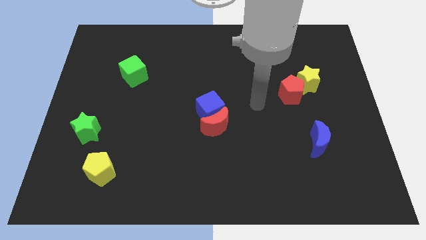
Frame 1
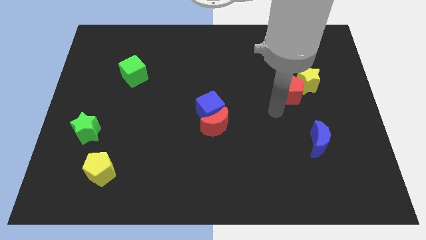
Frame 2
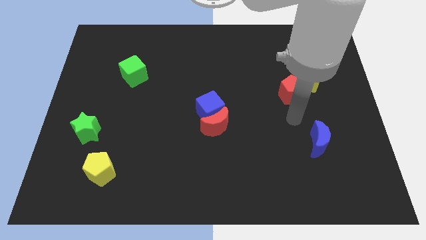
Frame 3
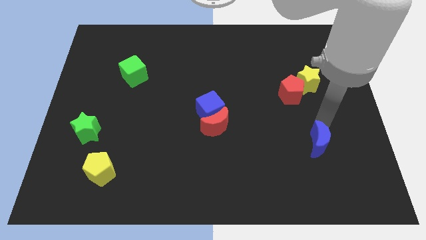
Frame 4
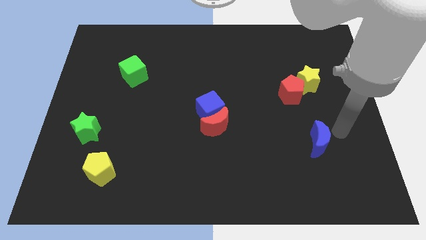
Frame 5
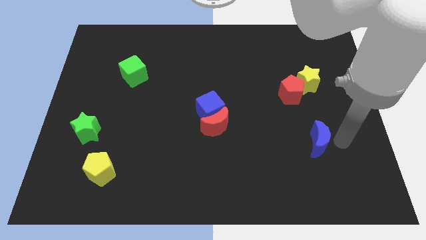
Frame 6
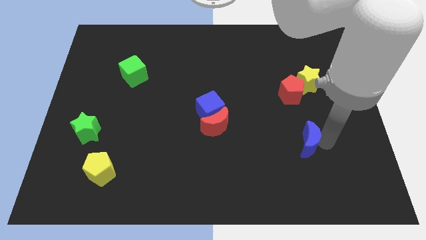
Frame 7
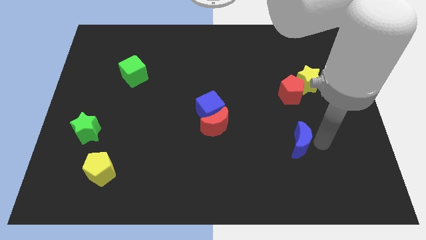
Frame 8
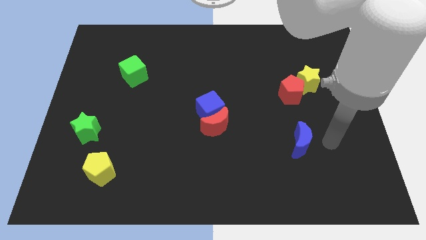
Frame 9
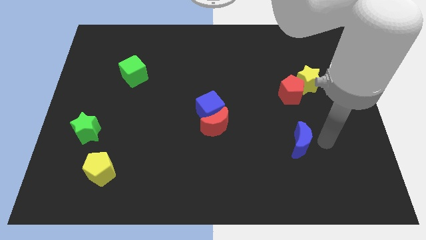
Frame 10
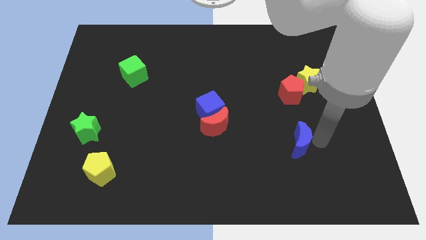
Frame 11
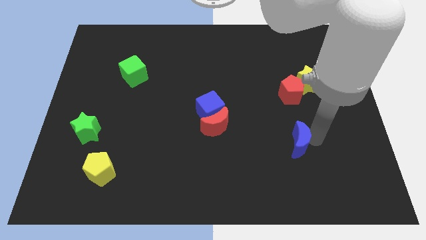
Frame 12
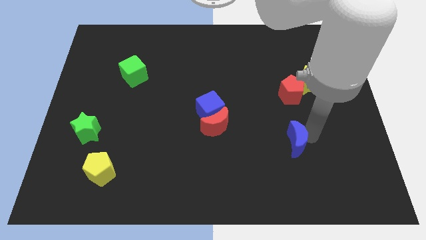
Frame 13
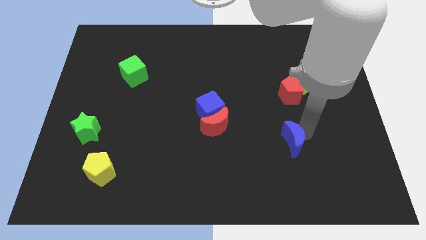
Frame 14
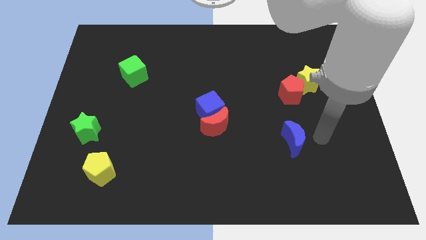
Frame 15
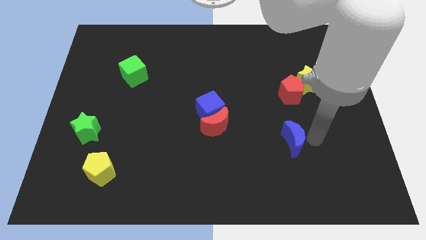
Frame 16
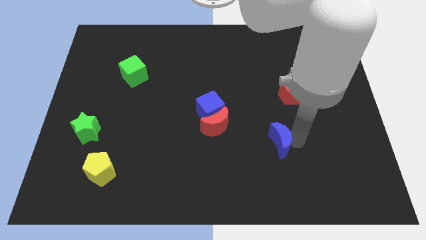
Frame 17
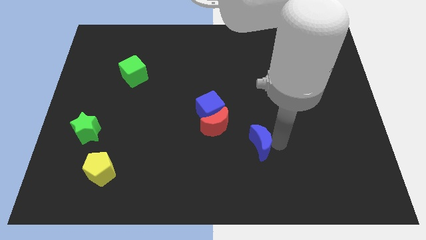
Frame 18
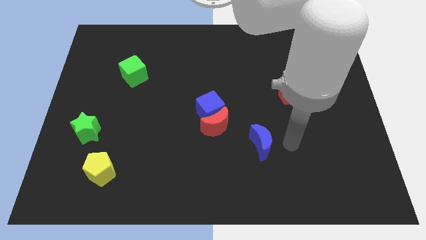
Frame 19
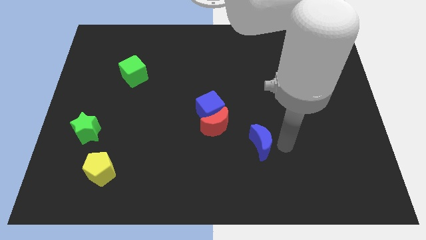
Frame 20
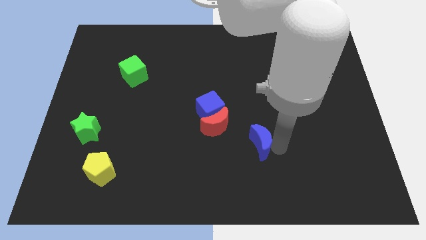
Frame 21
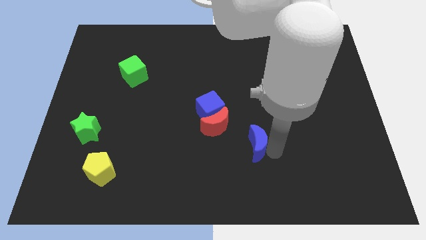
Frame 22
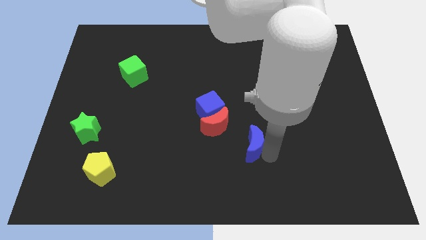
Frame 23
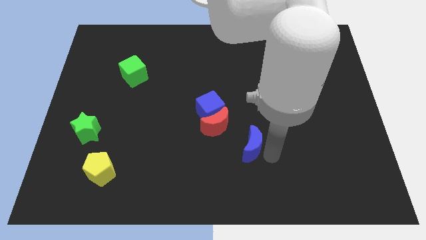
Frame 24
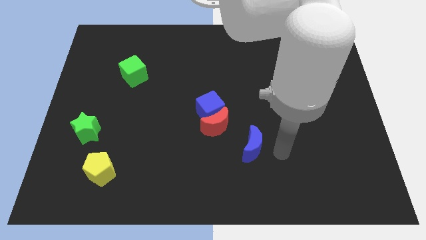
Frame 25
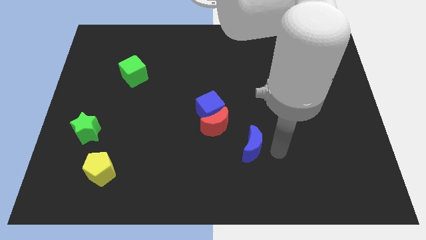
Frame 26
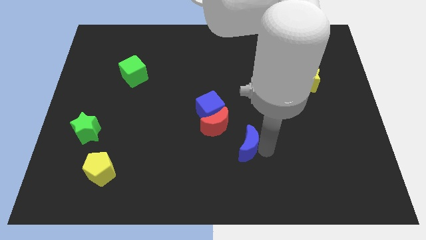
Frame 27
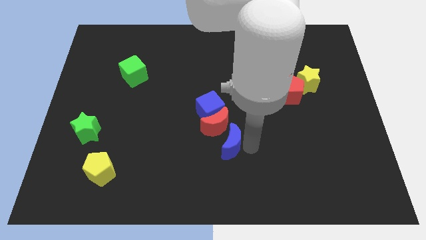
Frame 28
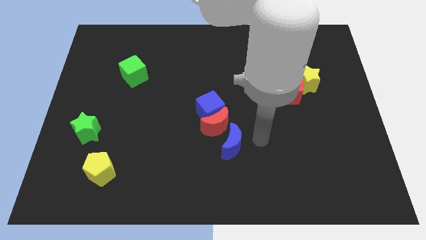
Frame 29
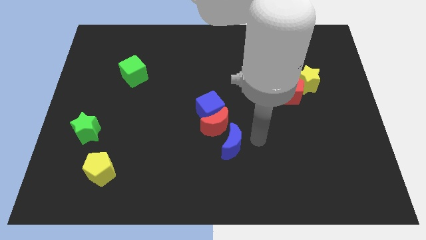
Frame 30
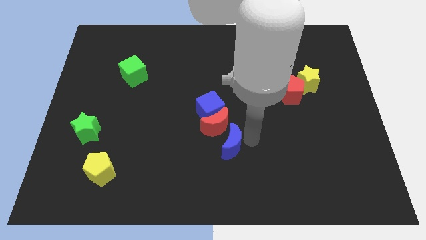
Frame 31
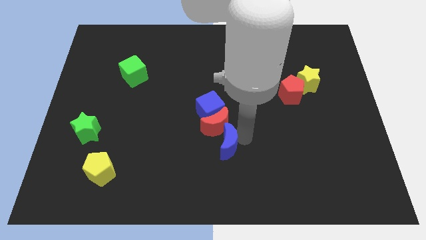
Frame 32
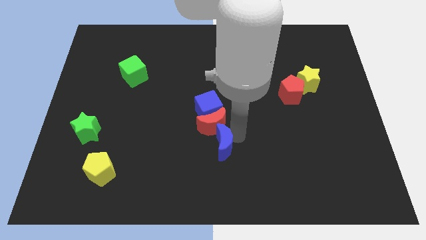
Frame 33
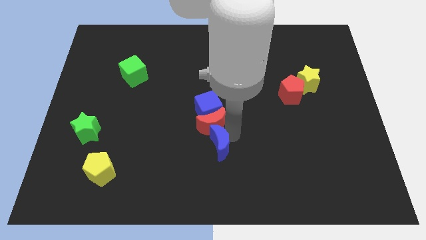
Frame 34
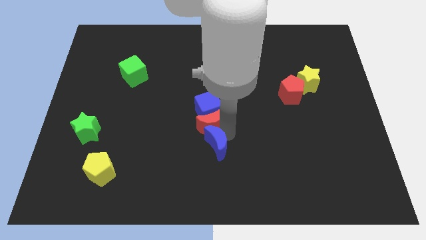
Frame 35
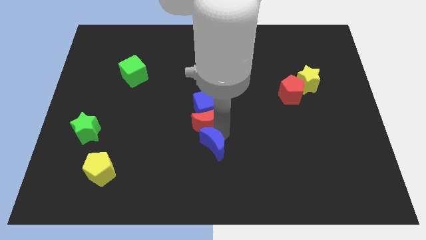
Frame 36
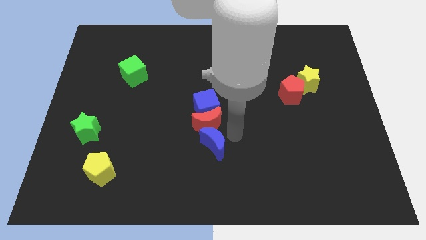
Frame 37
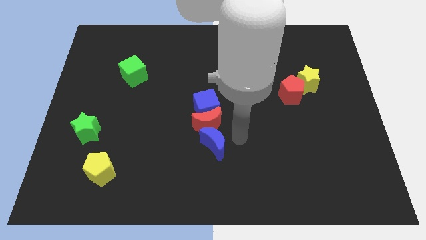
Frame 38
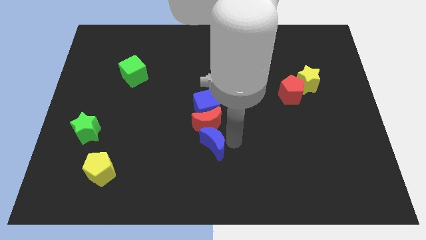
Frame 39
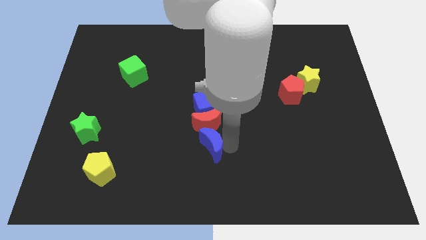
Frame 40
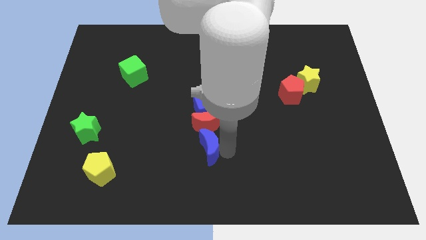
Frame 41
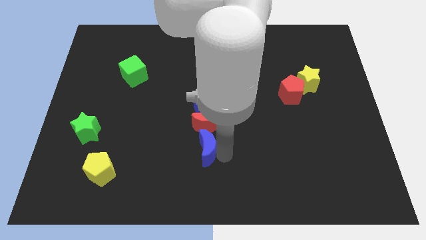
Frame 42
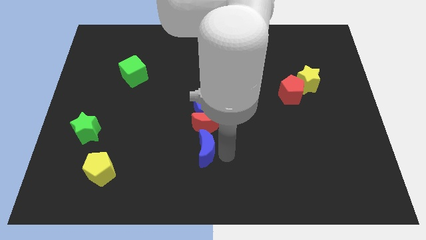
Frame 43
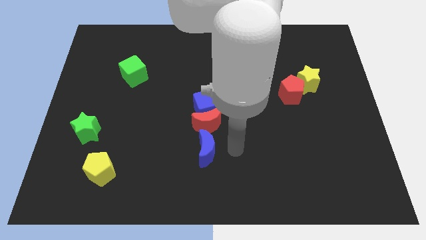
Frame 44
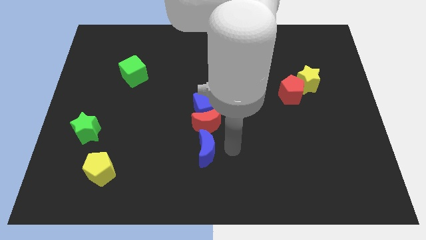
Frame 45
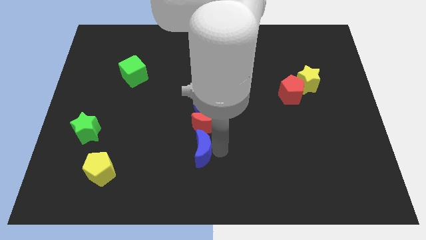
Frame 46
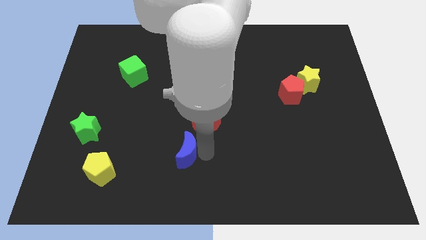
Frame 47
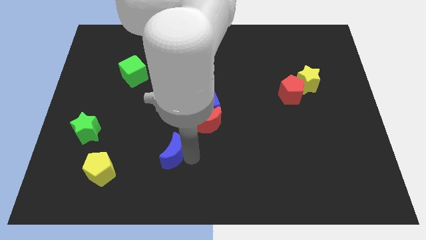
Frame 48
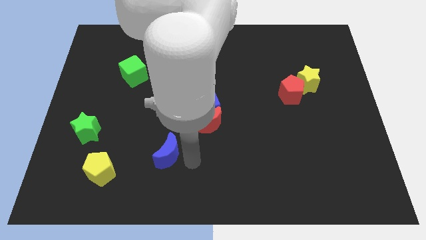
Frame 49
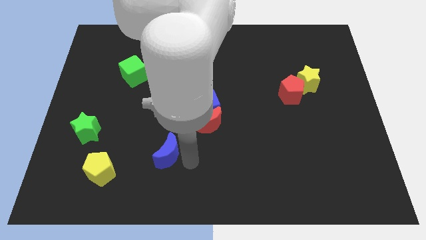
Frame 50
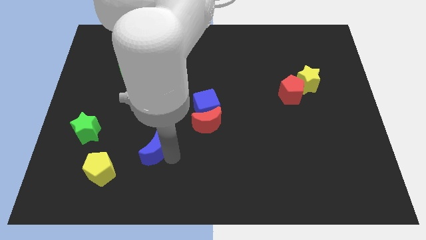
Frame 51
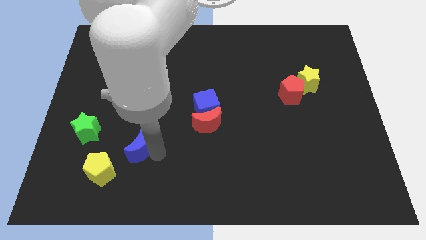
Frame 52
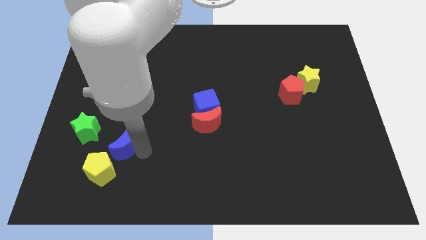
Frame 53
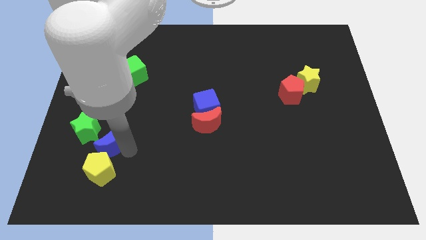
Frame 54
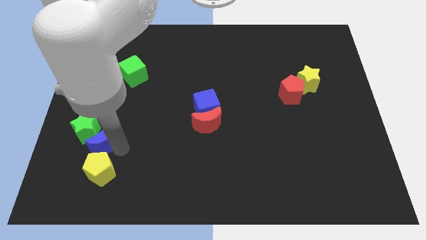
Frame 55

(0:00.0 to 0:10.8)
move the blue moon close to the green star

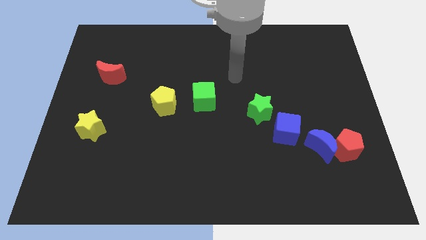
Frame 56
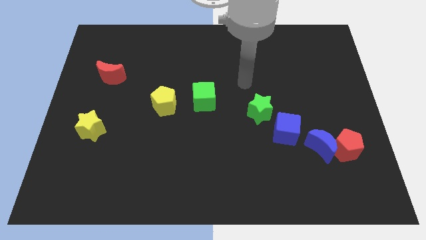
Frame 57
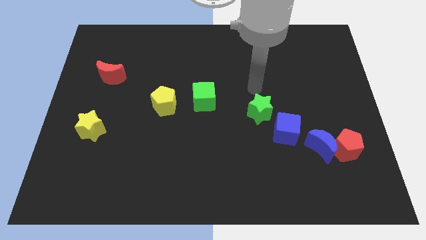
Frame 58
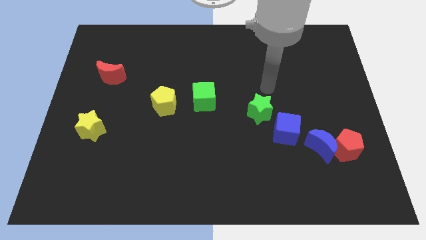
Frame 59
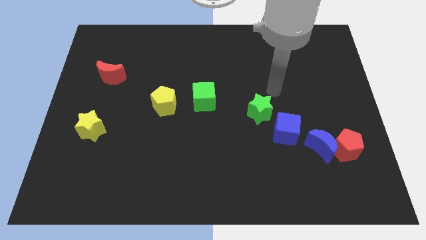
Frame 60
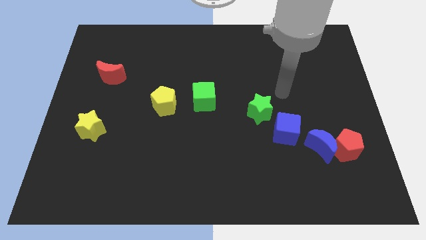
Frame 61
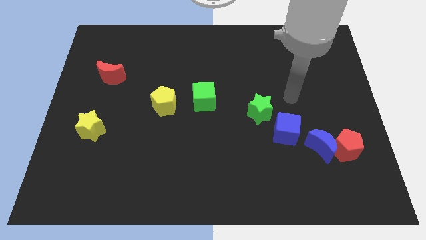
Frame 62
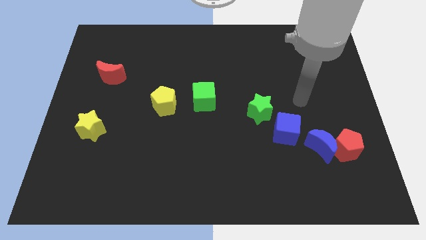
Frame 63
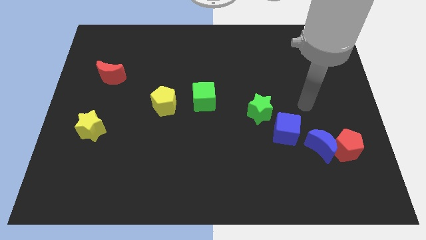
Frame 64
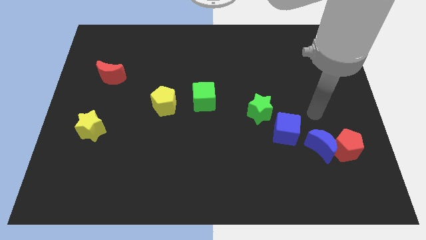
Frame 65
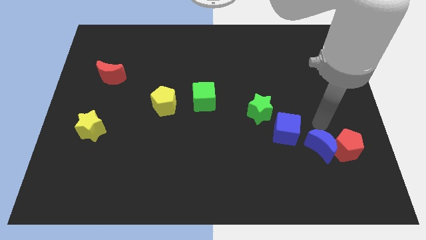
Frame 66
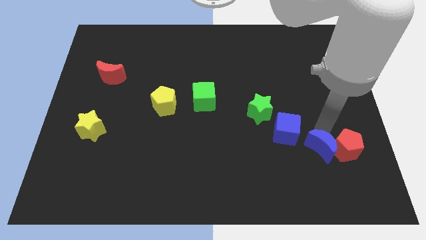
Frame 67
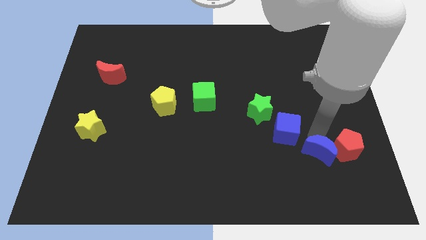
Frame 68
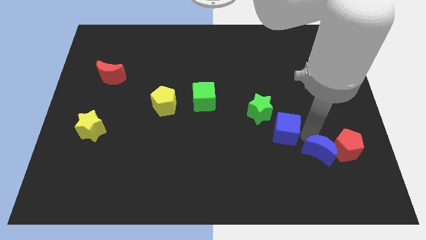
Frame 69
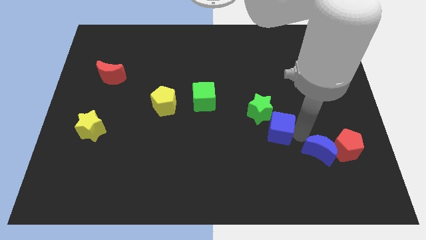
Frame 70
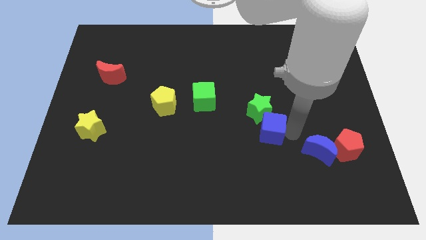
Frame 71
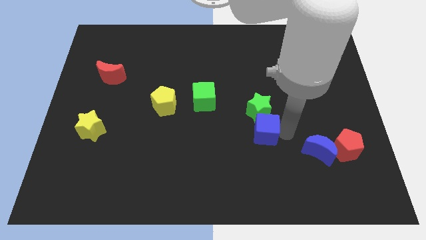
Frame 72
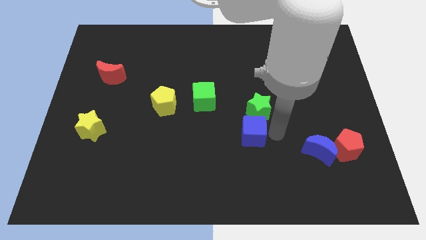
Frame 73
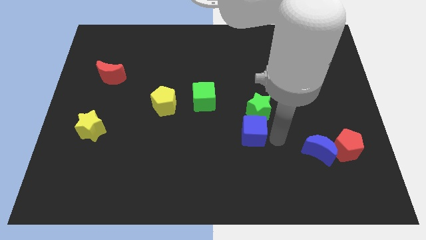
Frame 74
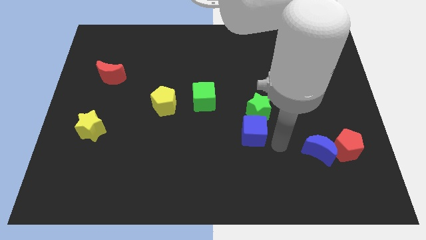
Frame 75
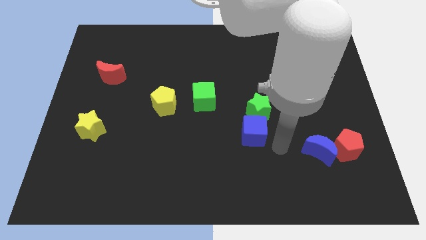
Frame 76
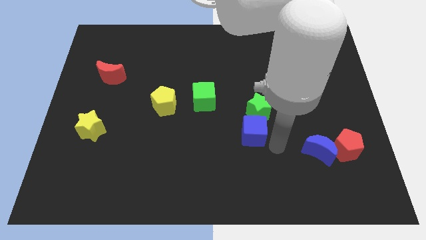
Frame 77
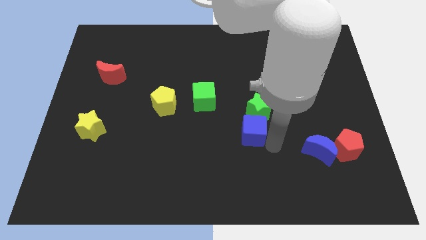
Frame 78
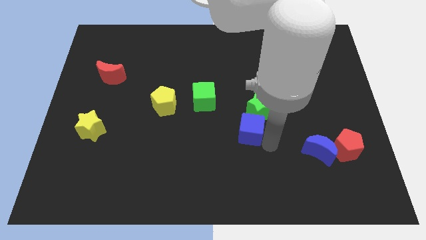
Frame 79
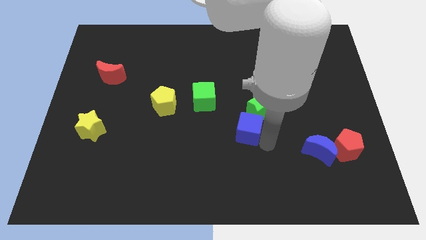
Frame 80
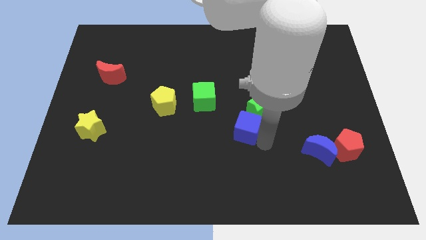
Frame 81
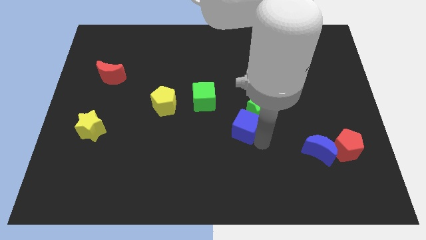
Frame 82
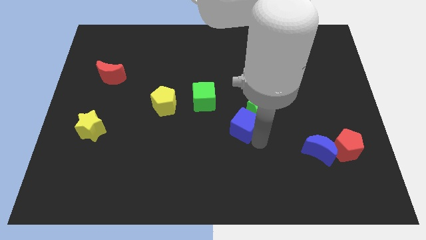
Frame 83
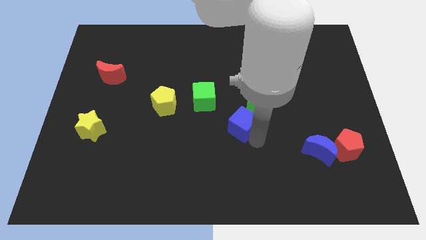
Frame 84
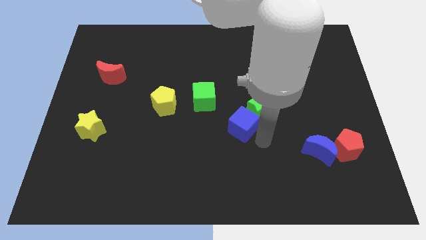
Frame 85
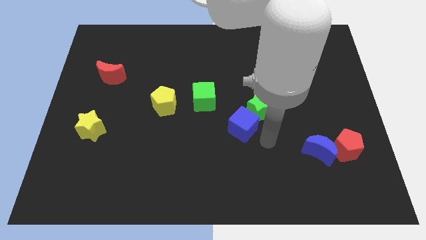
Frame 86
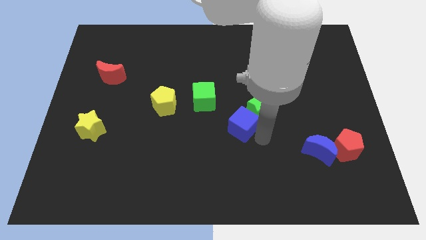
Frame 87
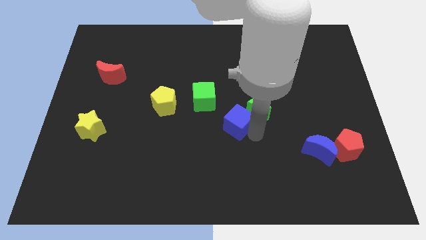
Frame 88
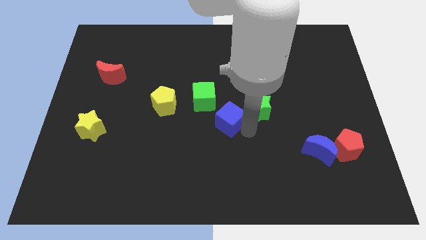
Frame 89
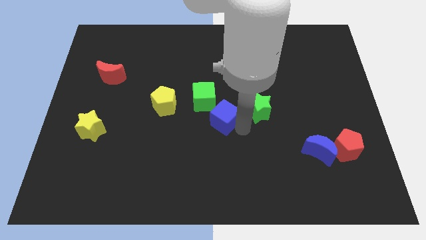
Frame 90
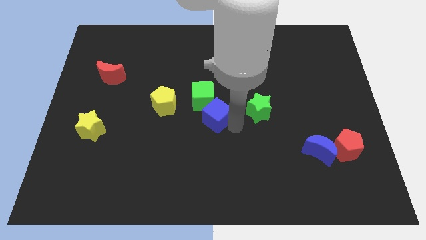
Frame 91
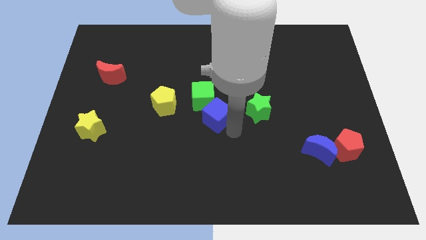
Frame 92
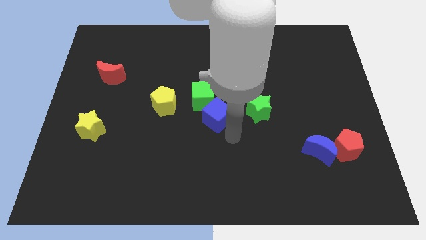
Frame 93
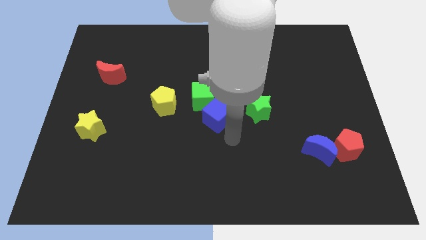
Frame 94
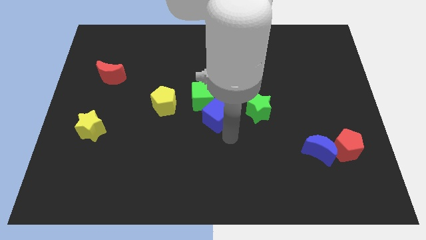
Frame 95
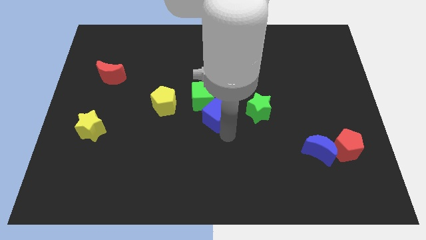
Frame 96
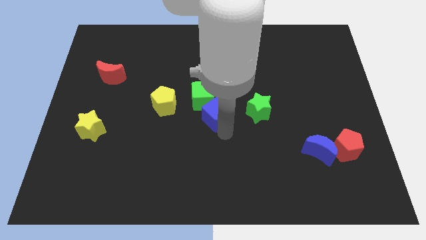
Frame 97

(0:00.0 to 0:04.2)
put the blue cube next to the green cube
